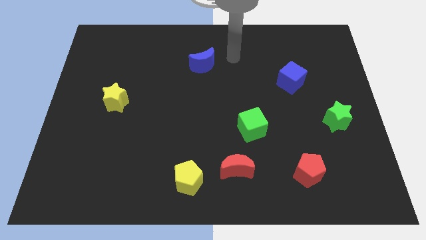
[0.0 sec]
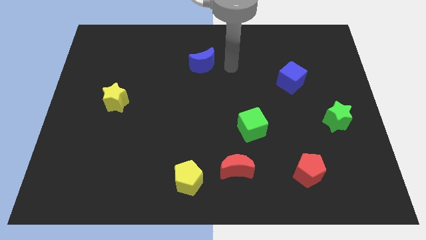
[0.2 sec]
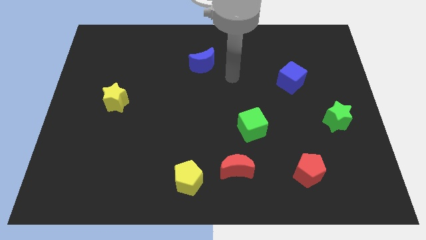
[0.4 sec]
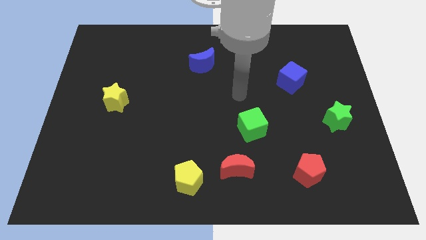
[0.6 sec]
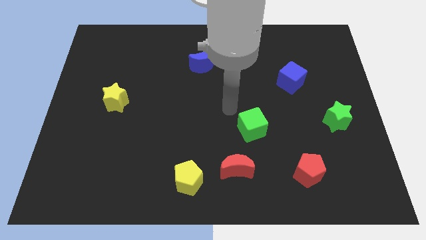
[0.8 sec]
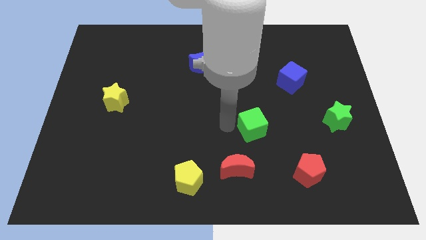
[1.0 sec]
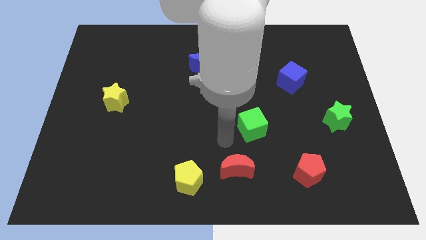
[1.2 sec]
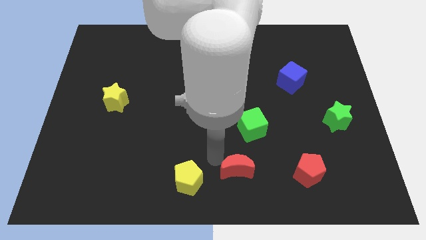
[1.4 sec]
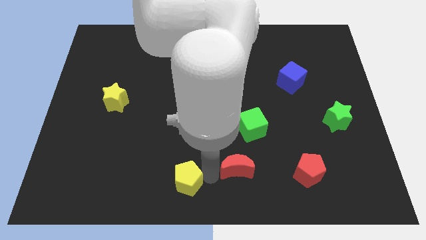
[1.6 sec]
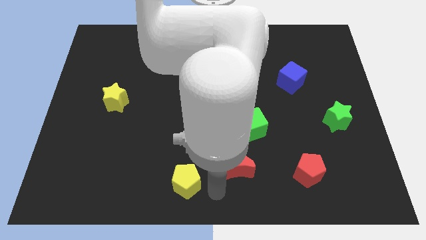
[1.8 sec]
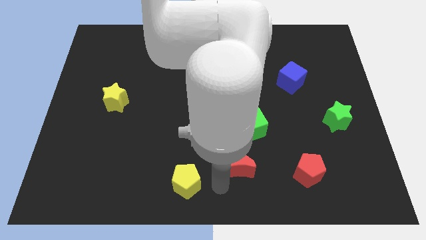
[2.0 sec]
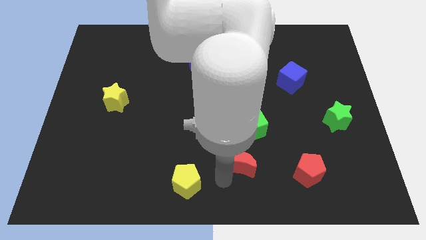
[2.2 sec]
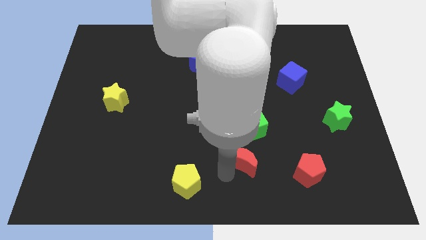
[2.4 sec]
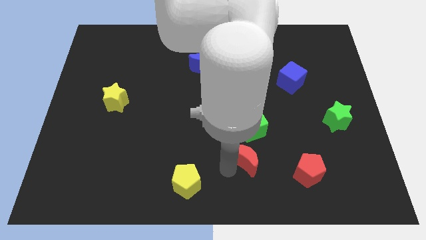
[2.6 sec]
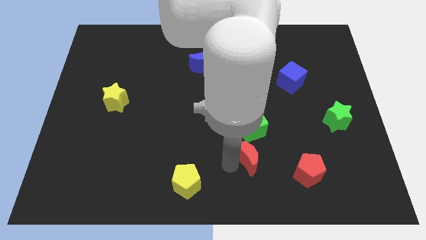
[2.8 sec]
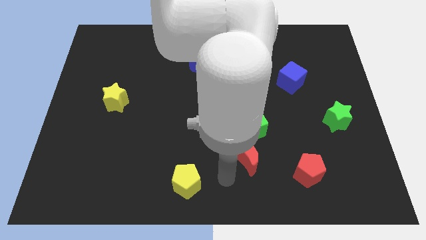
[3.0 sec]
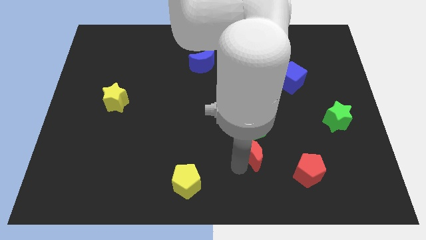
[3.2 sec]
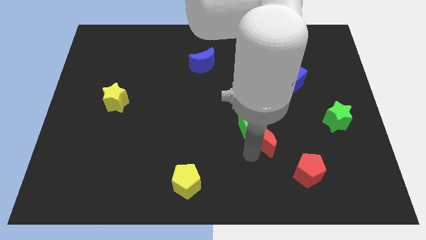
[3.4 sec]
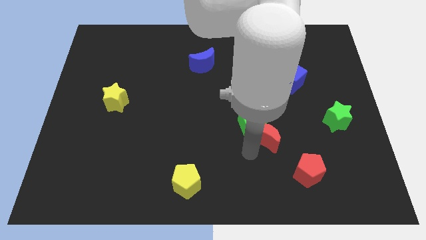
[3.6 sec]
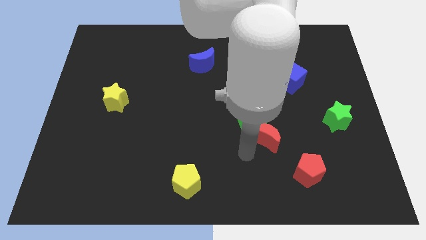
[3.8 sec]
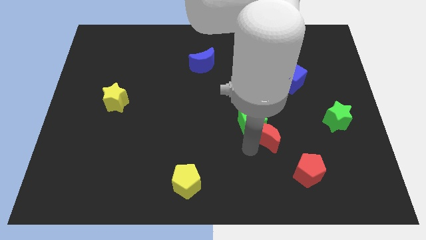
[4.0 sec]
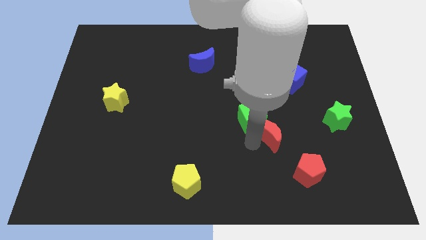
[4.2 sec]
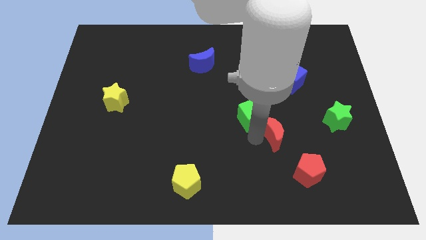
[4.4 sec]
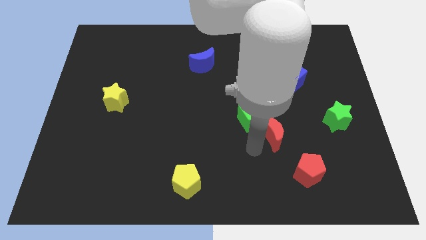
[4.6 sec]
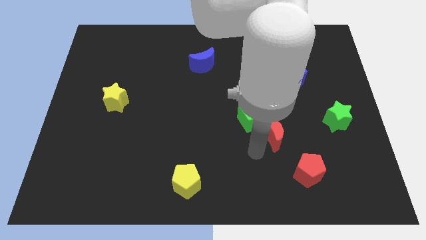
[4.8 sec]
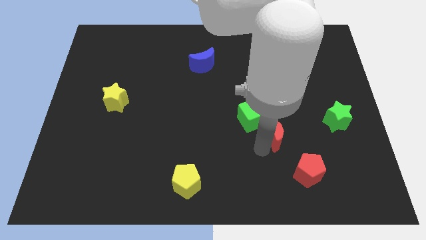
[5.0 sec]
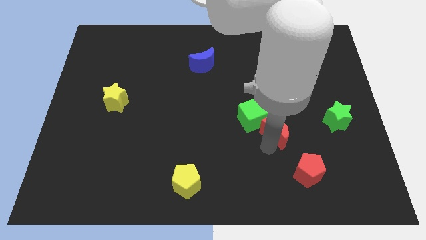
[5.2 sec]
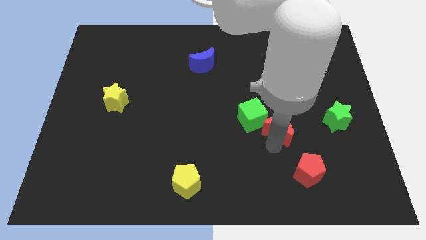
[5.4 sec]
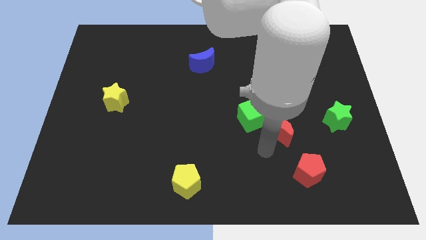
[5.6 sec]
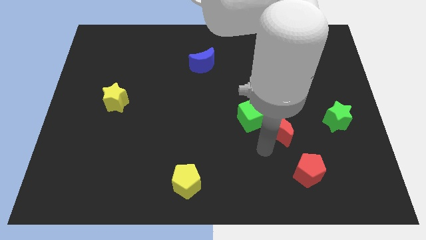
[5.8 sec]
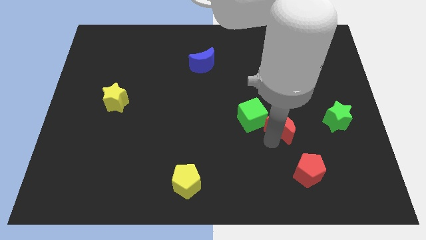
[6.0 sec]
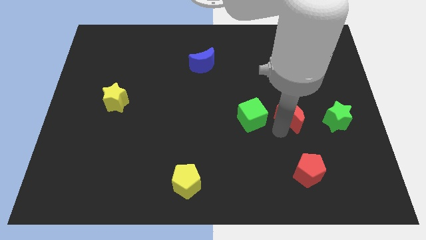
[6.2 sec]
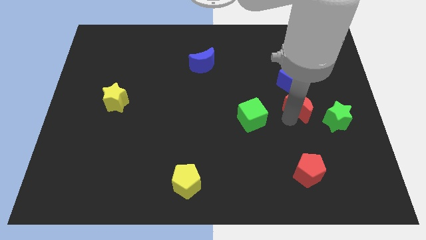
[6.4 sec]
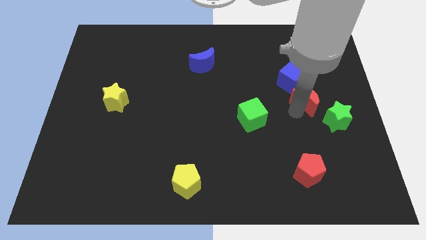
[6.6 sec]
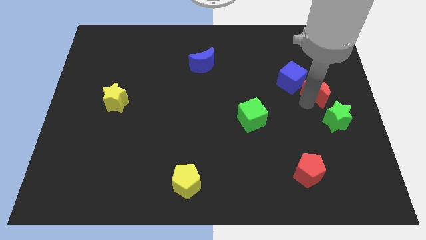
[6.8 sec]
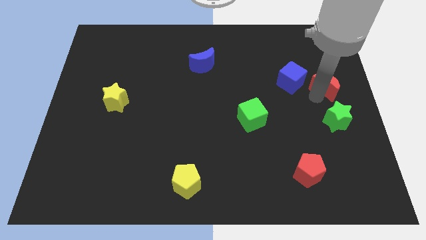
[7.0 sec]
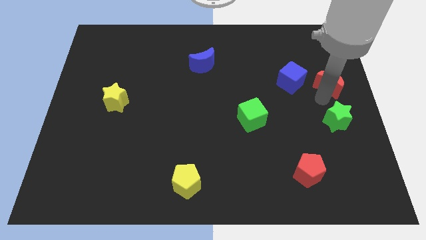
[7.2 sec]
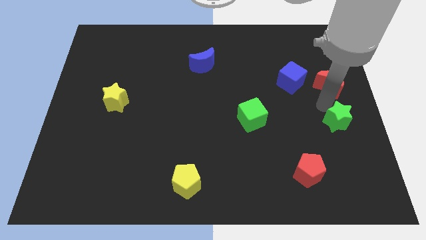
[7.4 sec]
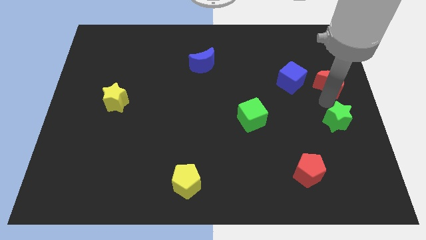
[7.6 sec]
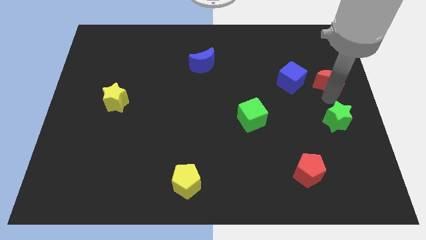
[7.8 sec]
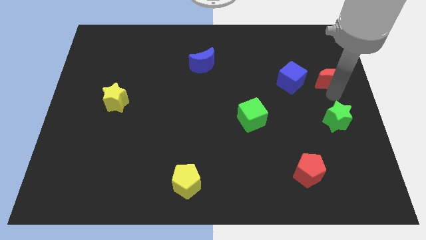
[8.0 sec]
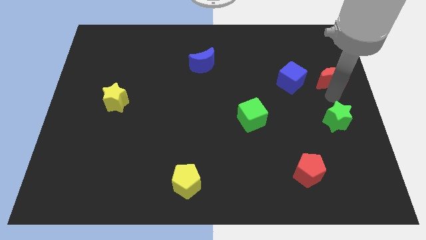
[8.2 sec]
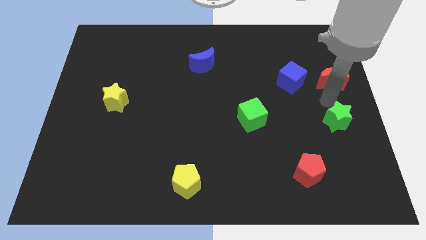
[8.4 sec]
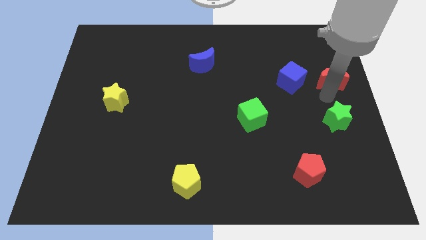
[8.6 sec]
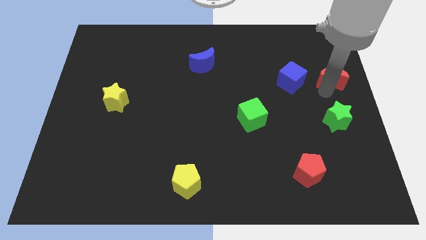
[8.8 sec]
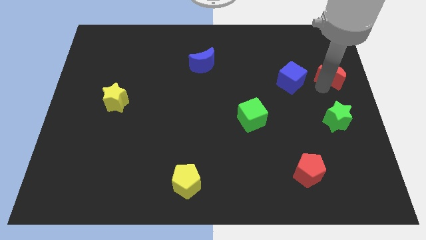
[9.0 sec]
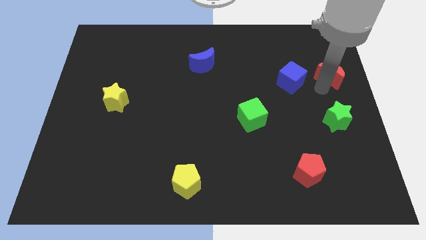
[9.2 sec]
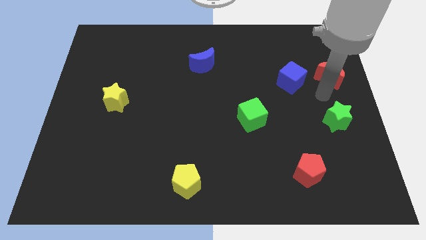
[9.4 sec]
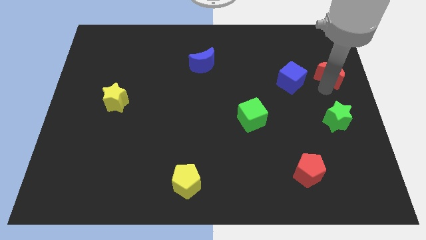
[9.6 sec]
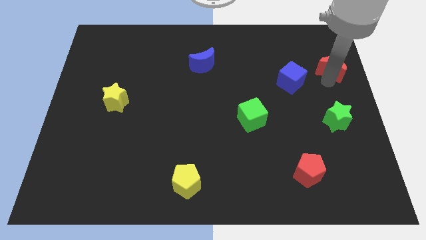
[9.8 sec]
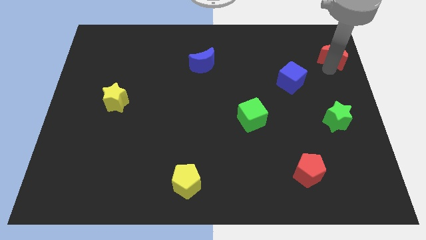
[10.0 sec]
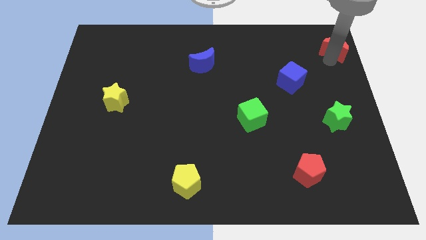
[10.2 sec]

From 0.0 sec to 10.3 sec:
move the red moon to the upper right corner

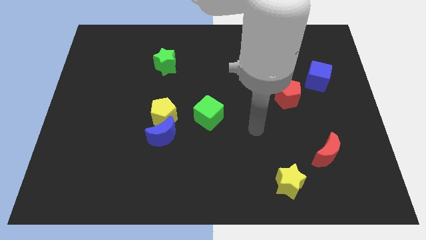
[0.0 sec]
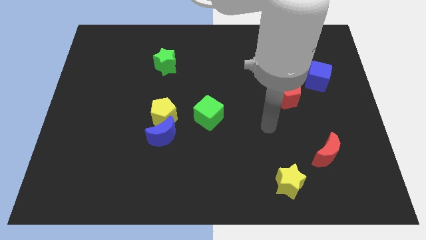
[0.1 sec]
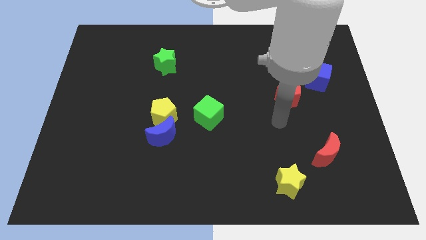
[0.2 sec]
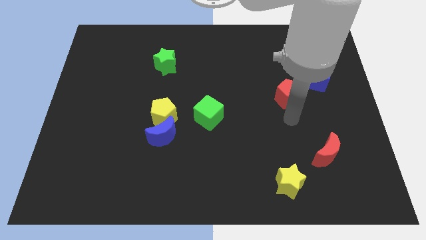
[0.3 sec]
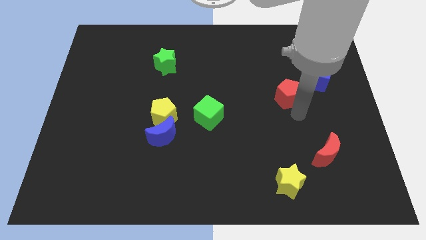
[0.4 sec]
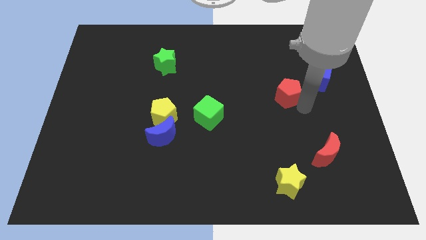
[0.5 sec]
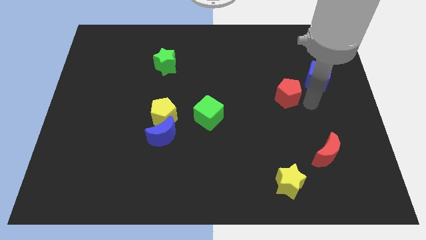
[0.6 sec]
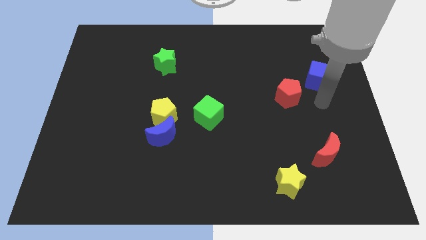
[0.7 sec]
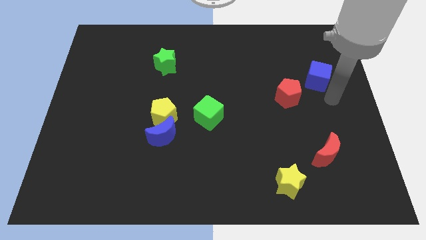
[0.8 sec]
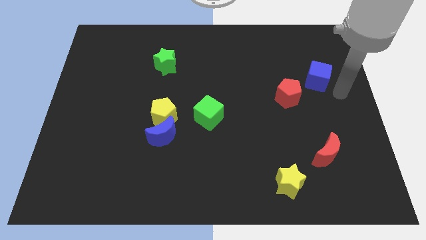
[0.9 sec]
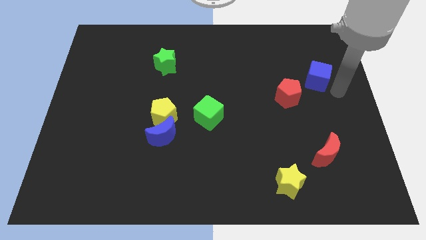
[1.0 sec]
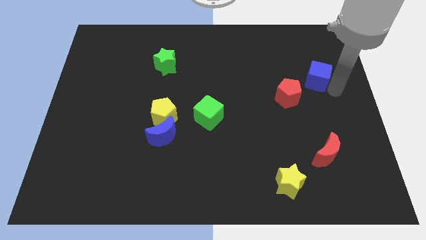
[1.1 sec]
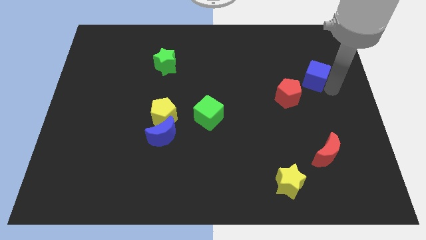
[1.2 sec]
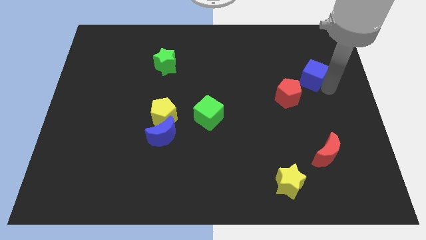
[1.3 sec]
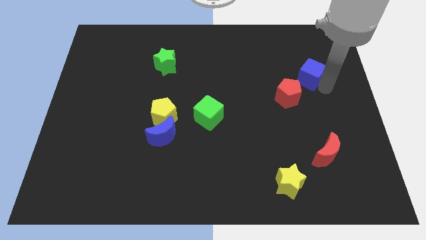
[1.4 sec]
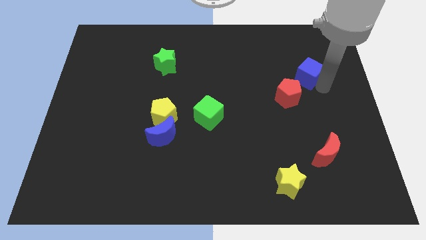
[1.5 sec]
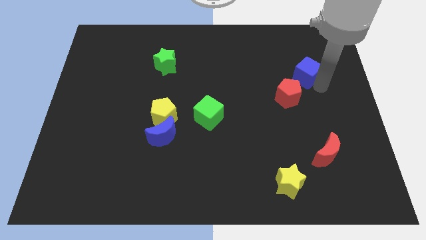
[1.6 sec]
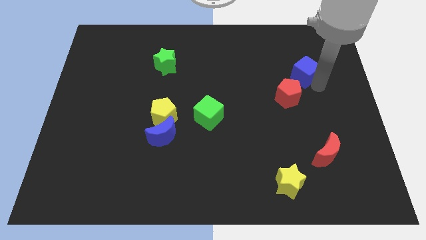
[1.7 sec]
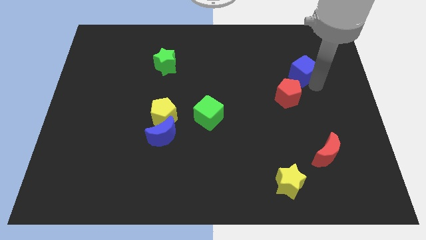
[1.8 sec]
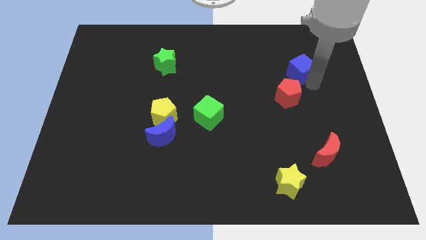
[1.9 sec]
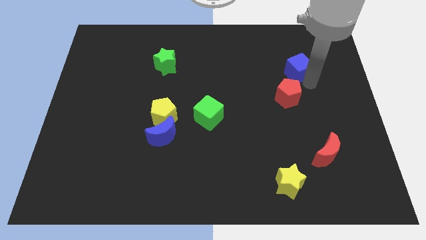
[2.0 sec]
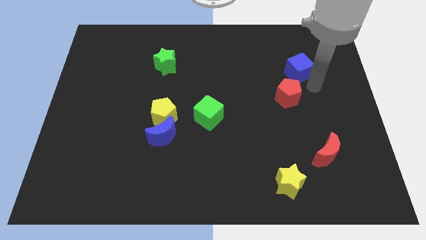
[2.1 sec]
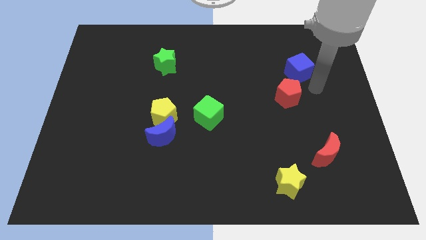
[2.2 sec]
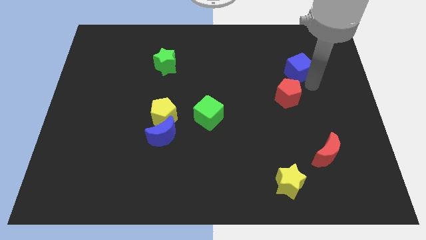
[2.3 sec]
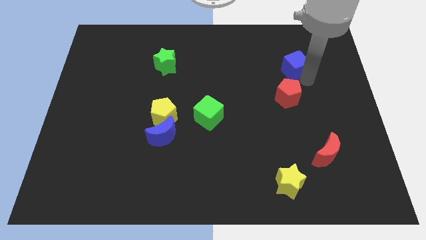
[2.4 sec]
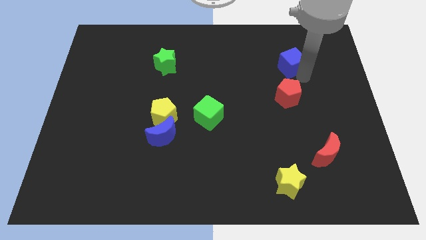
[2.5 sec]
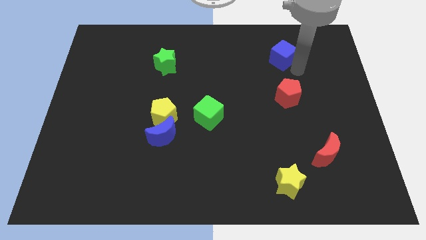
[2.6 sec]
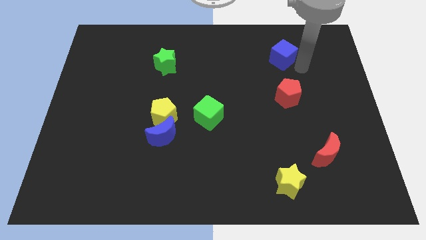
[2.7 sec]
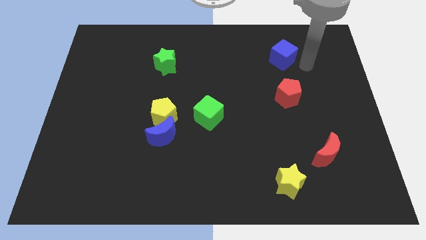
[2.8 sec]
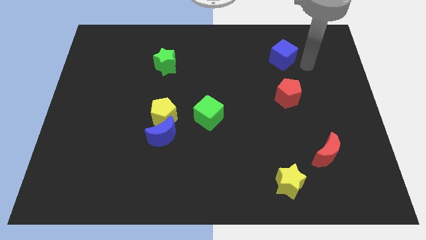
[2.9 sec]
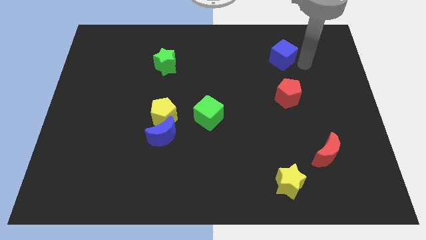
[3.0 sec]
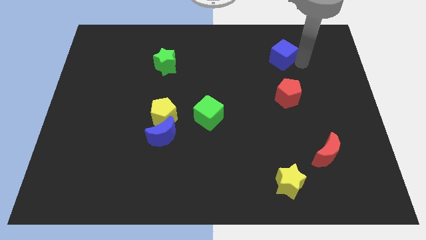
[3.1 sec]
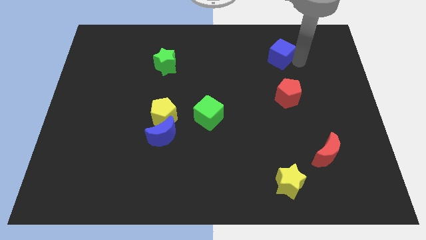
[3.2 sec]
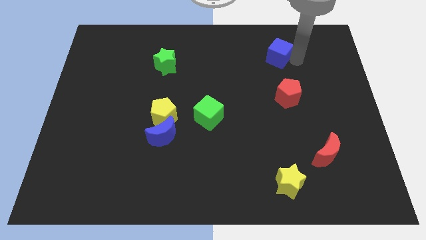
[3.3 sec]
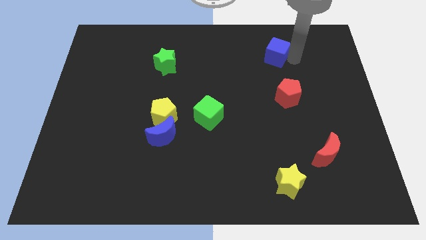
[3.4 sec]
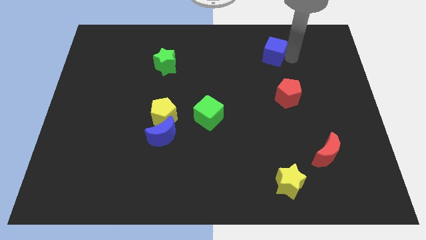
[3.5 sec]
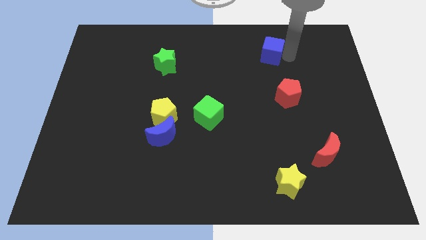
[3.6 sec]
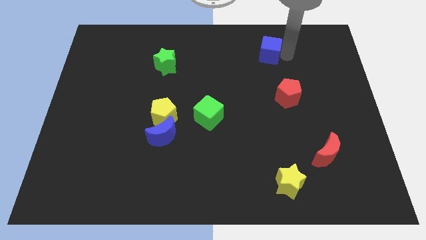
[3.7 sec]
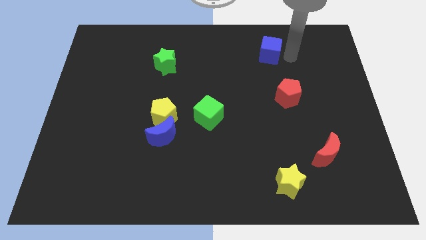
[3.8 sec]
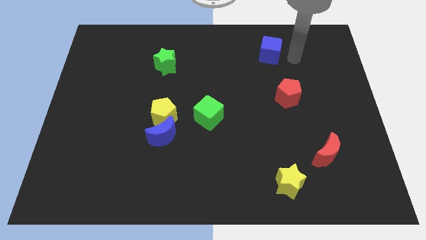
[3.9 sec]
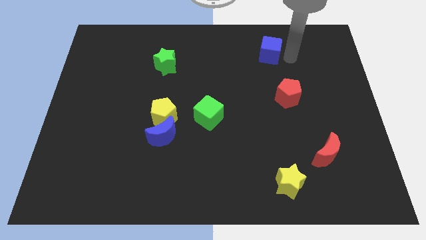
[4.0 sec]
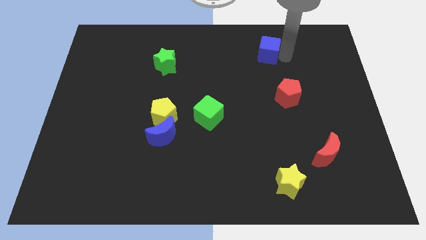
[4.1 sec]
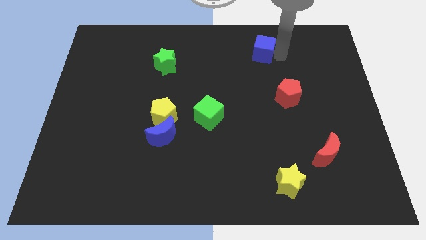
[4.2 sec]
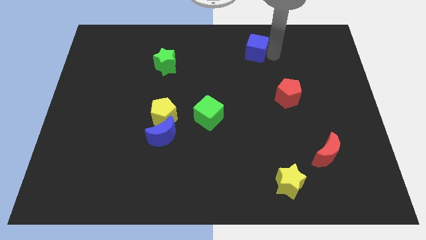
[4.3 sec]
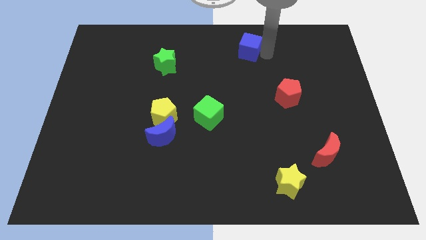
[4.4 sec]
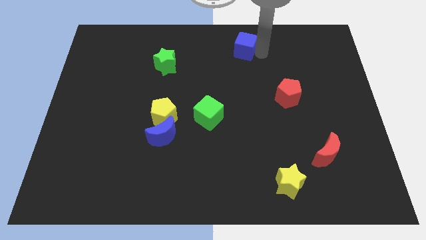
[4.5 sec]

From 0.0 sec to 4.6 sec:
push the blue cube to the top
